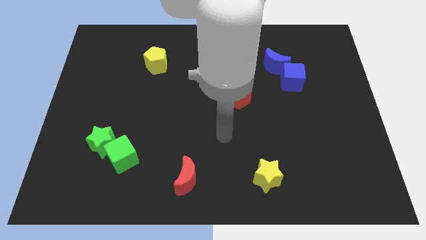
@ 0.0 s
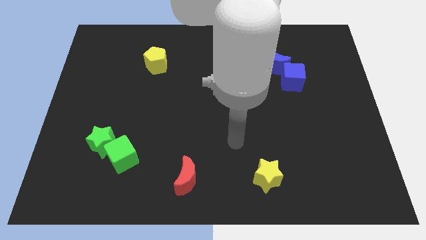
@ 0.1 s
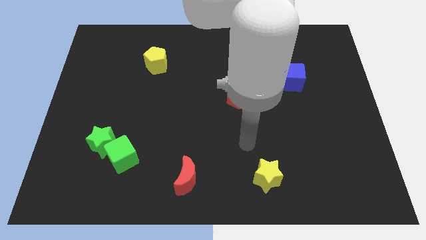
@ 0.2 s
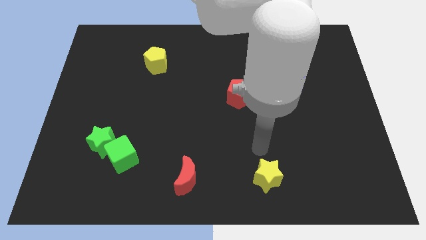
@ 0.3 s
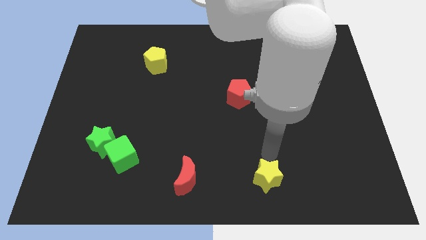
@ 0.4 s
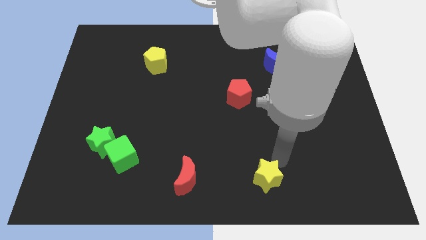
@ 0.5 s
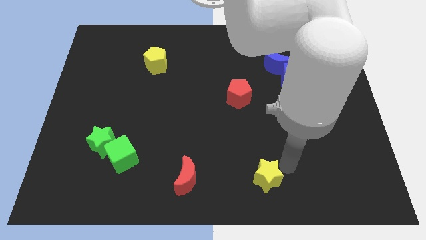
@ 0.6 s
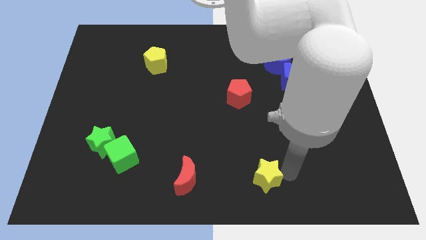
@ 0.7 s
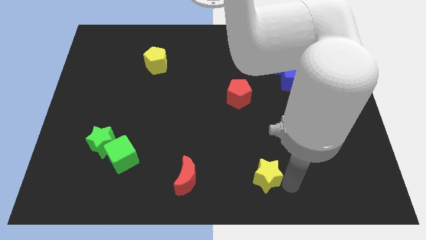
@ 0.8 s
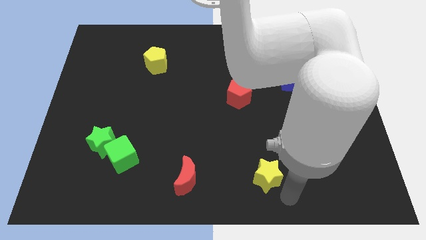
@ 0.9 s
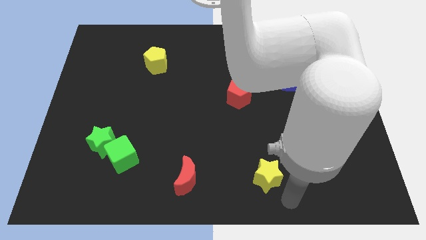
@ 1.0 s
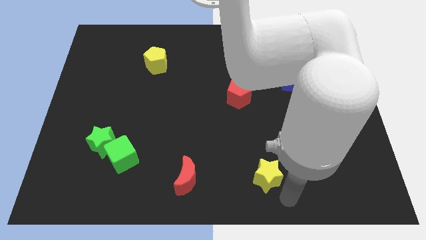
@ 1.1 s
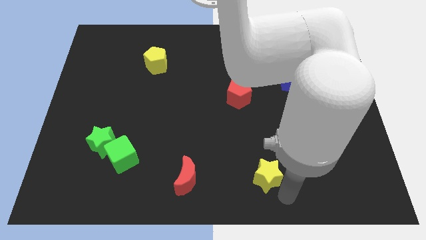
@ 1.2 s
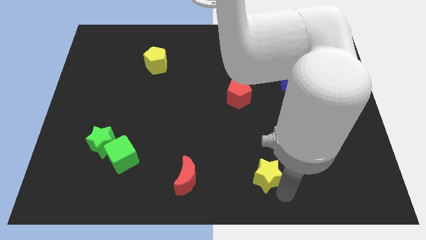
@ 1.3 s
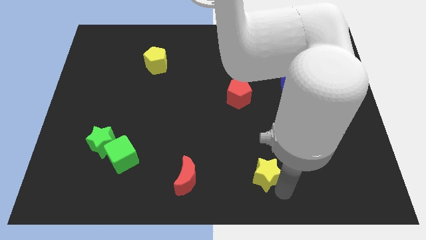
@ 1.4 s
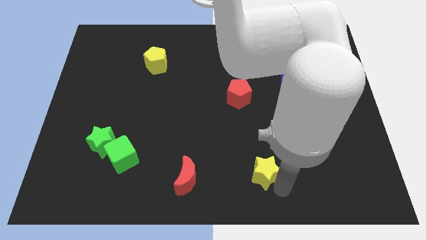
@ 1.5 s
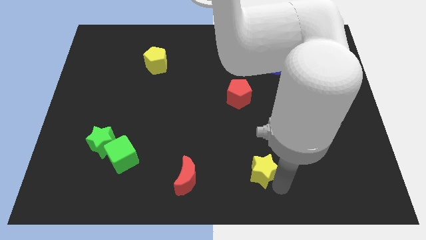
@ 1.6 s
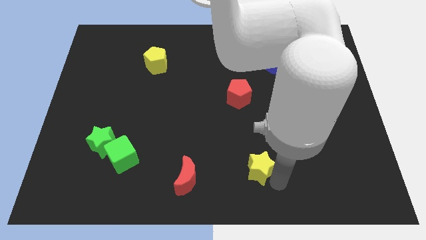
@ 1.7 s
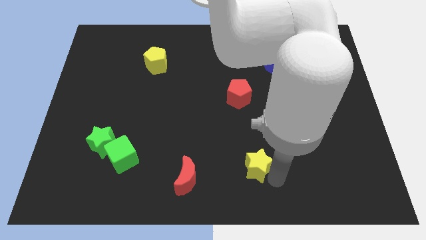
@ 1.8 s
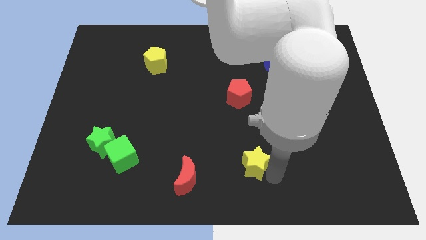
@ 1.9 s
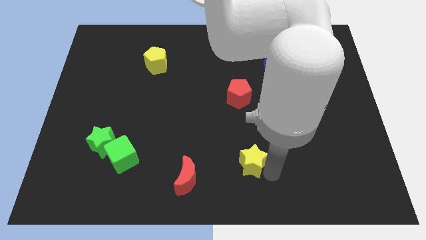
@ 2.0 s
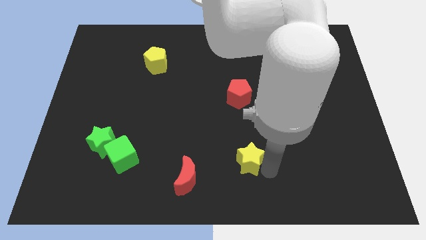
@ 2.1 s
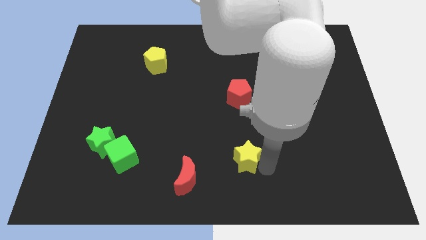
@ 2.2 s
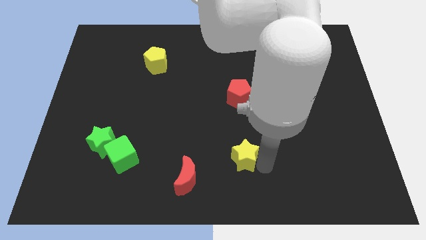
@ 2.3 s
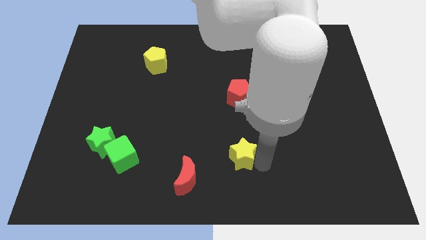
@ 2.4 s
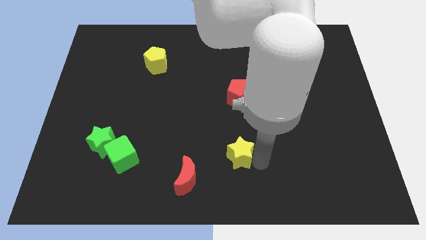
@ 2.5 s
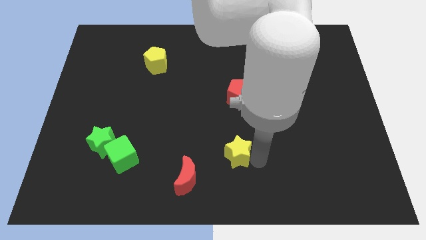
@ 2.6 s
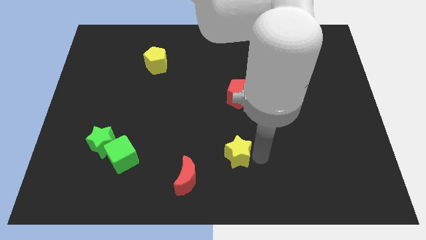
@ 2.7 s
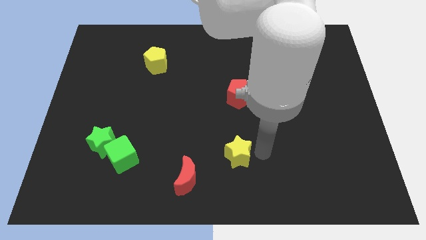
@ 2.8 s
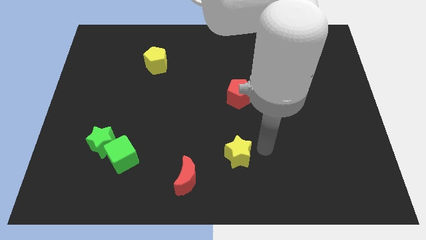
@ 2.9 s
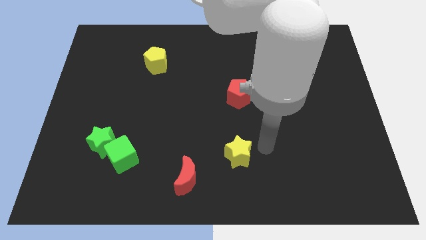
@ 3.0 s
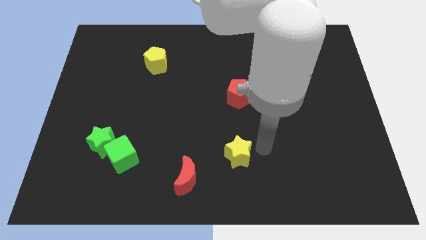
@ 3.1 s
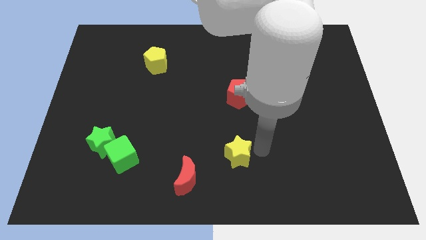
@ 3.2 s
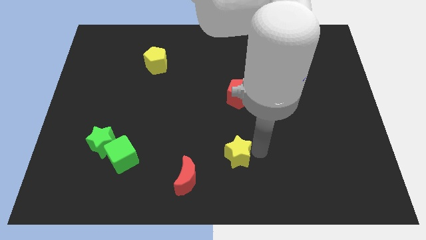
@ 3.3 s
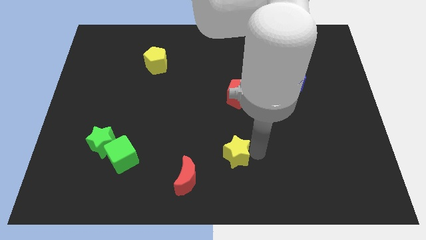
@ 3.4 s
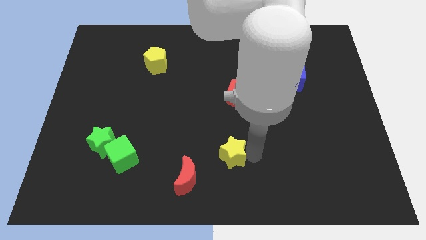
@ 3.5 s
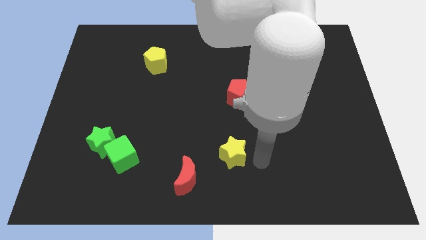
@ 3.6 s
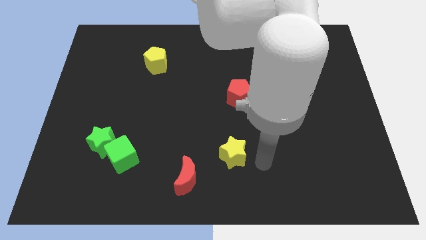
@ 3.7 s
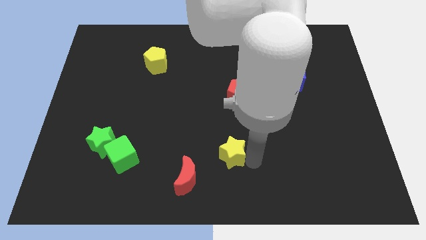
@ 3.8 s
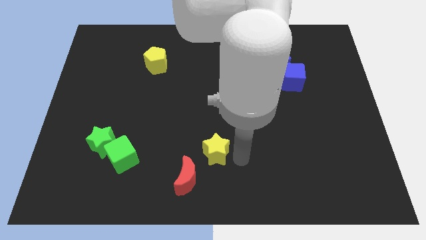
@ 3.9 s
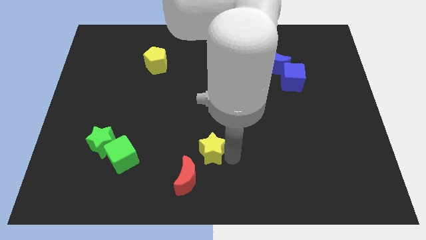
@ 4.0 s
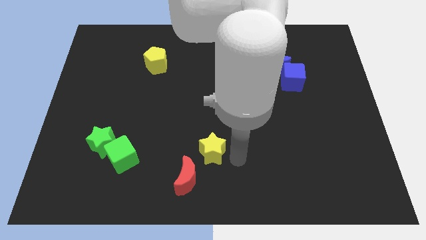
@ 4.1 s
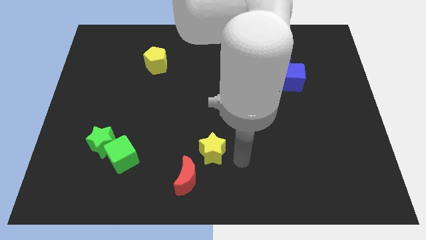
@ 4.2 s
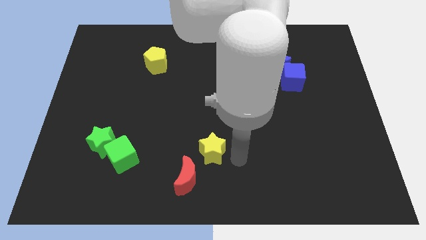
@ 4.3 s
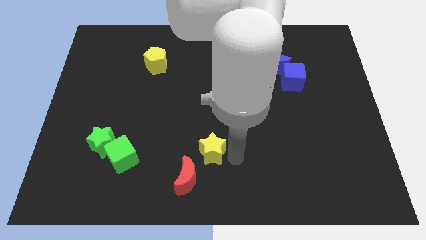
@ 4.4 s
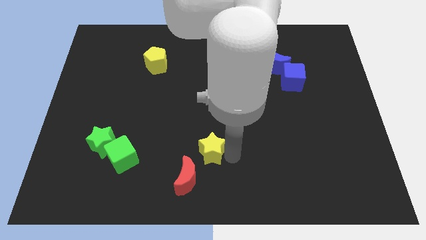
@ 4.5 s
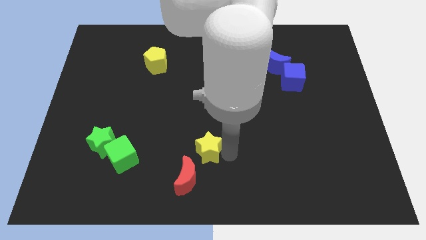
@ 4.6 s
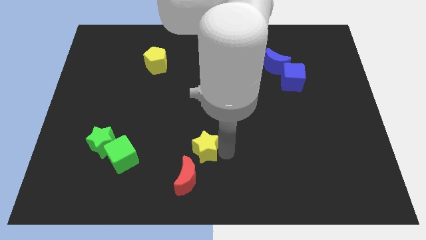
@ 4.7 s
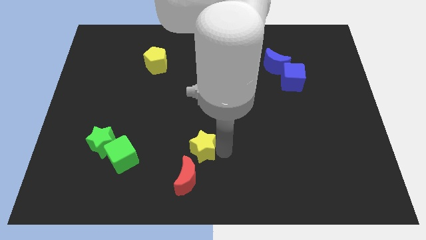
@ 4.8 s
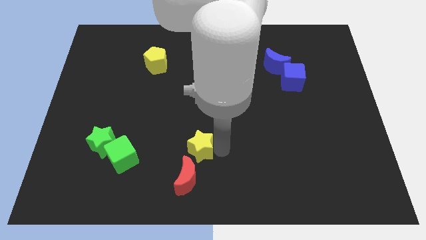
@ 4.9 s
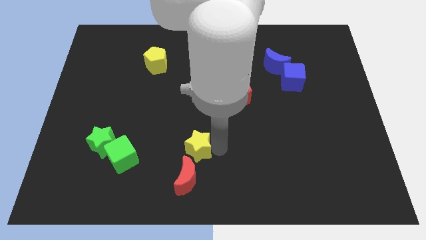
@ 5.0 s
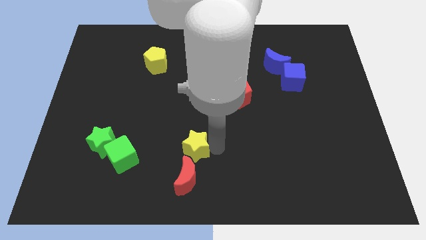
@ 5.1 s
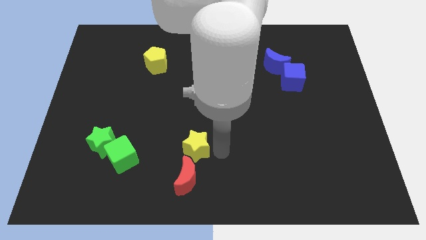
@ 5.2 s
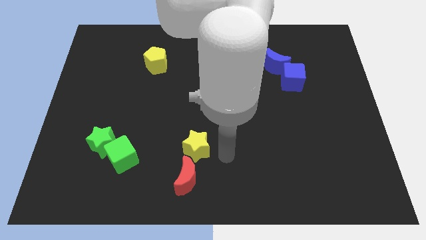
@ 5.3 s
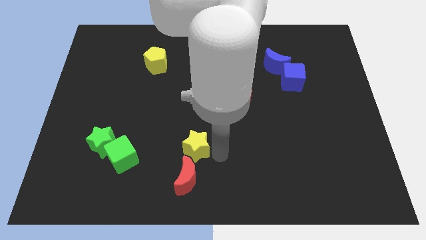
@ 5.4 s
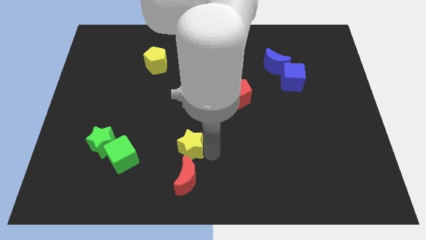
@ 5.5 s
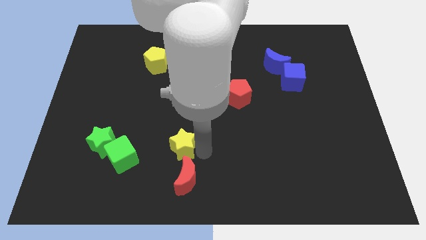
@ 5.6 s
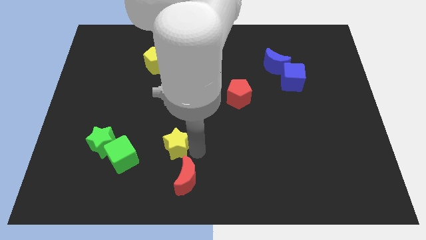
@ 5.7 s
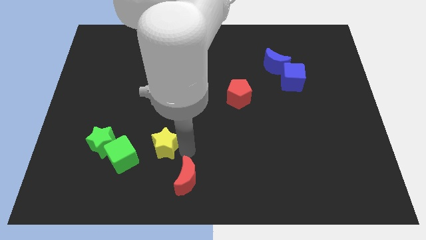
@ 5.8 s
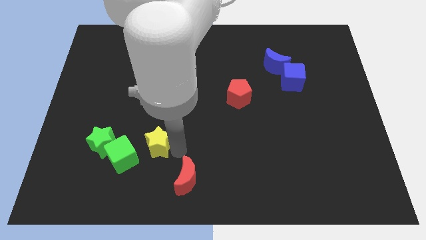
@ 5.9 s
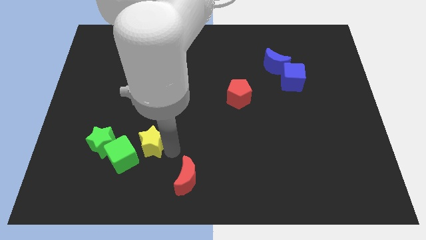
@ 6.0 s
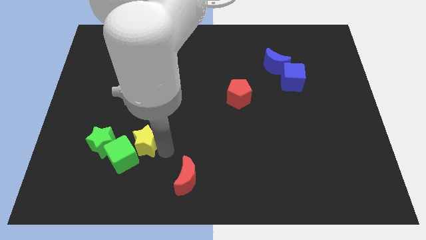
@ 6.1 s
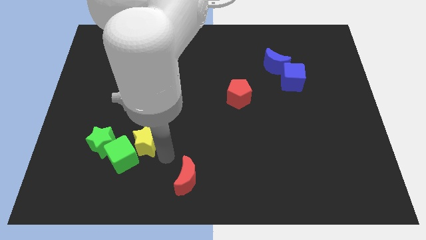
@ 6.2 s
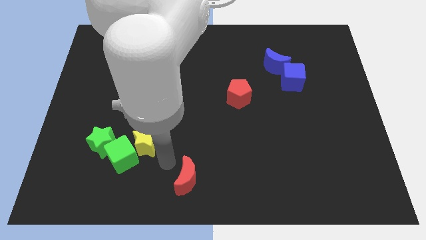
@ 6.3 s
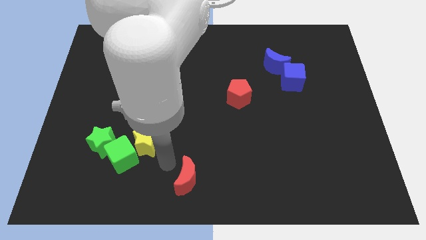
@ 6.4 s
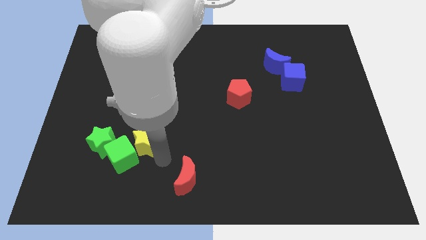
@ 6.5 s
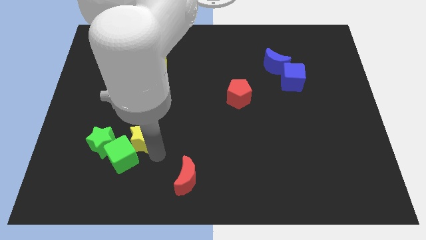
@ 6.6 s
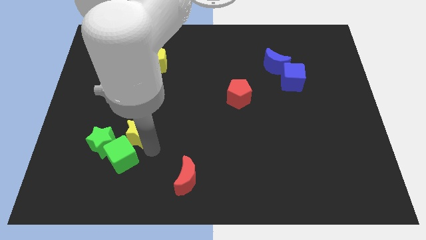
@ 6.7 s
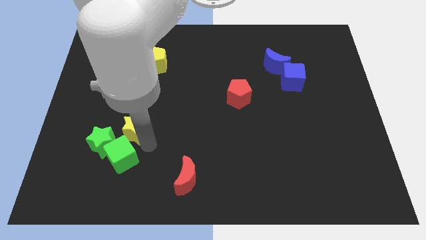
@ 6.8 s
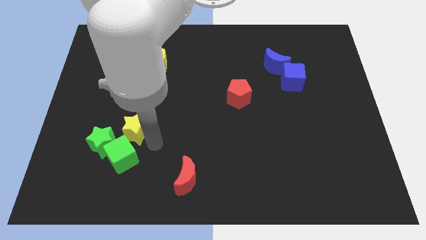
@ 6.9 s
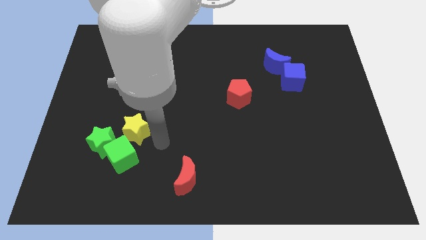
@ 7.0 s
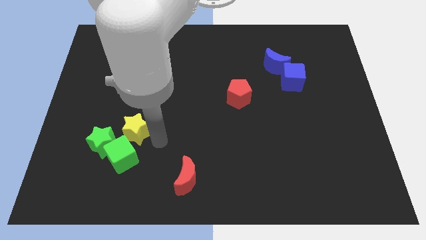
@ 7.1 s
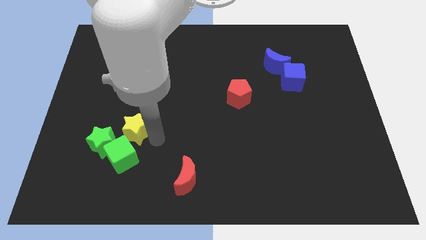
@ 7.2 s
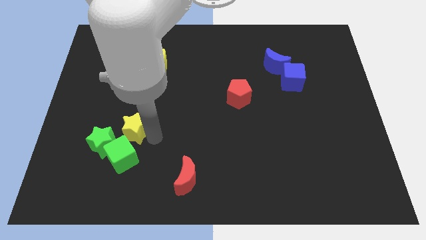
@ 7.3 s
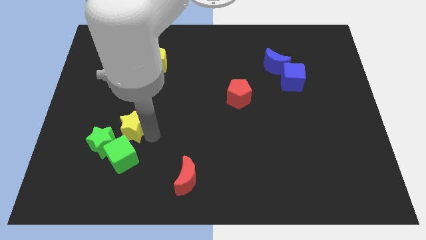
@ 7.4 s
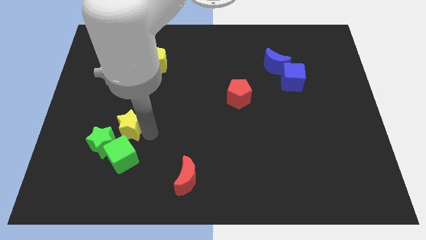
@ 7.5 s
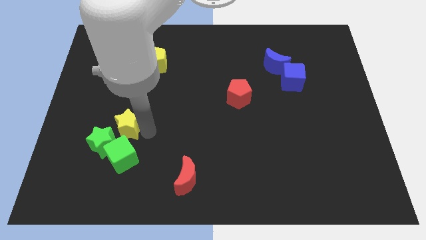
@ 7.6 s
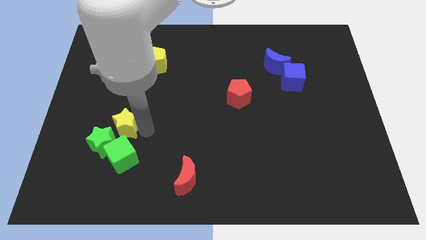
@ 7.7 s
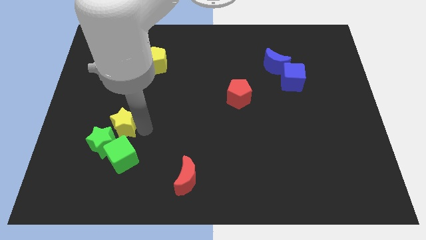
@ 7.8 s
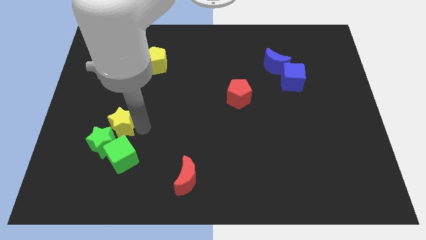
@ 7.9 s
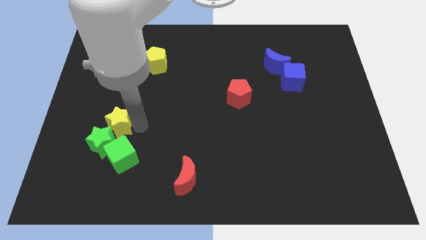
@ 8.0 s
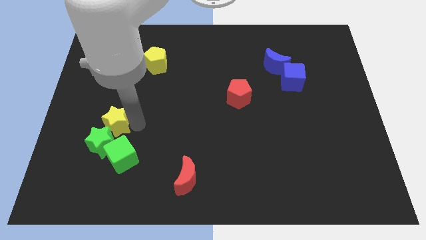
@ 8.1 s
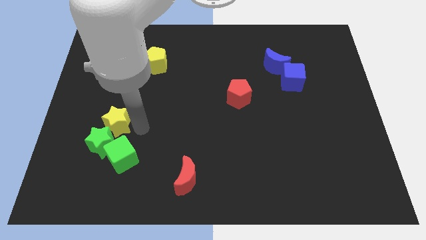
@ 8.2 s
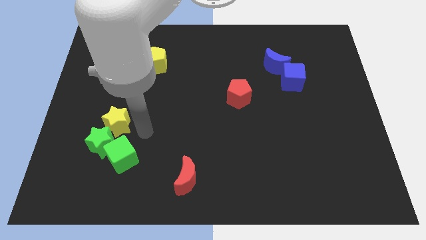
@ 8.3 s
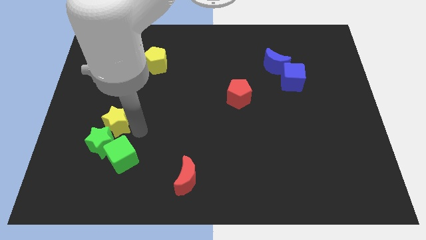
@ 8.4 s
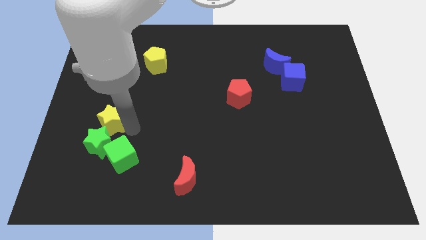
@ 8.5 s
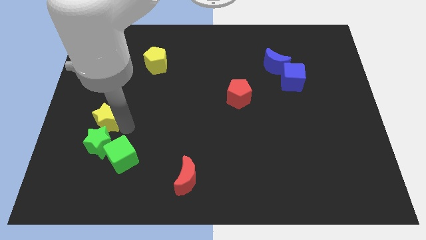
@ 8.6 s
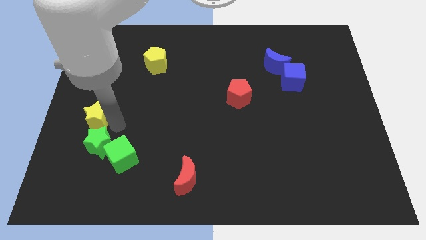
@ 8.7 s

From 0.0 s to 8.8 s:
put the yellow star to the center left
